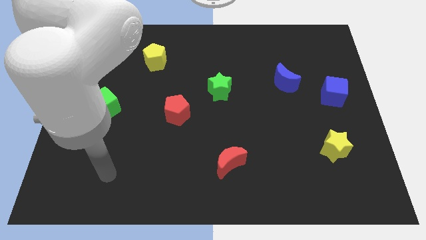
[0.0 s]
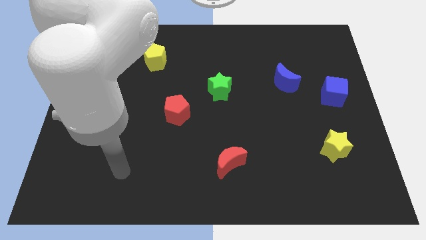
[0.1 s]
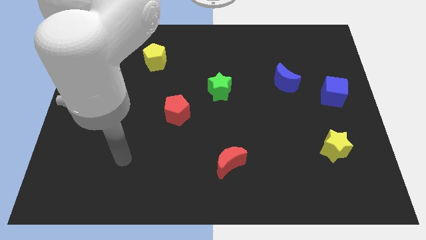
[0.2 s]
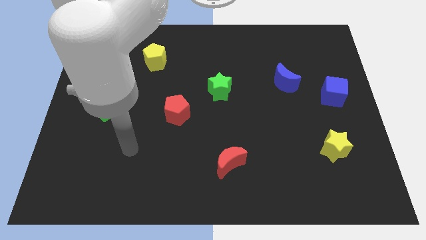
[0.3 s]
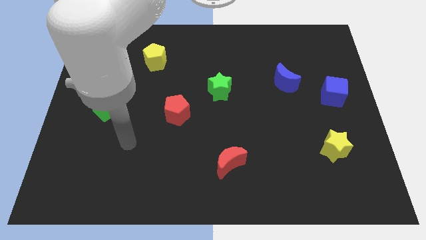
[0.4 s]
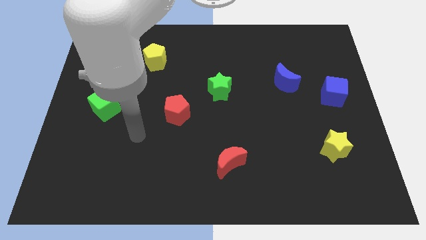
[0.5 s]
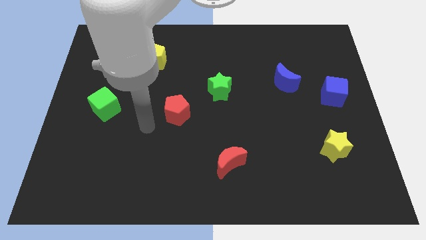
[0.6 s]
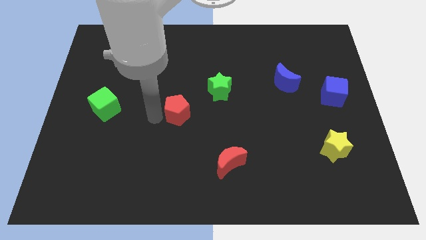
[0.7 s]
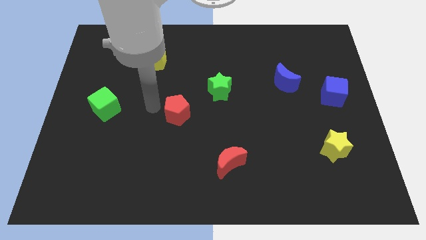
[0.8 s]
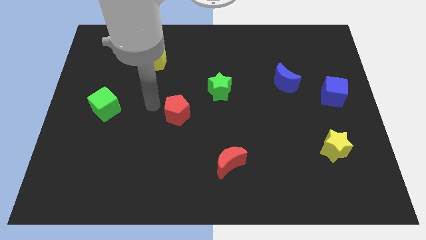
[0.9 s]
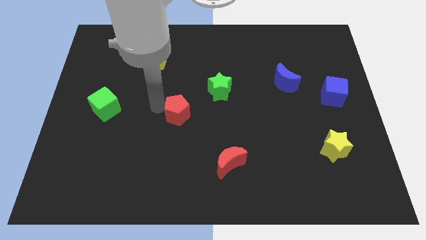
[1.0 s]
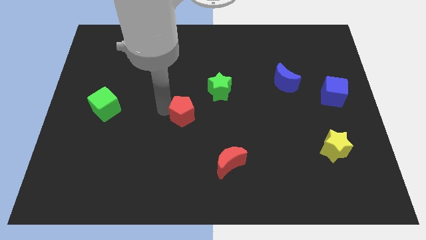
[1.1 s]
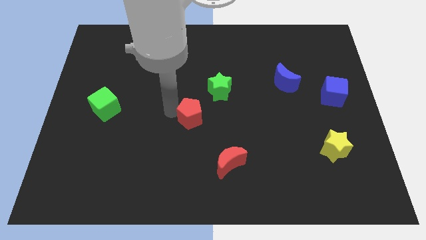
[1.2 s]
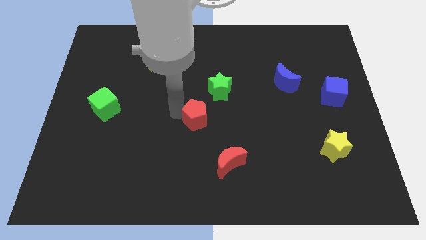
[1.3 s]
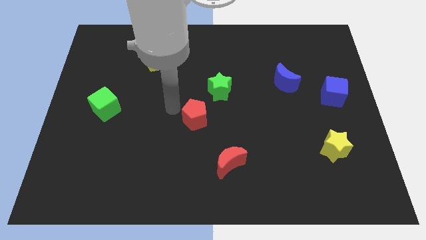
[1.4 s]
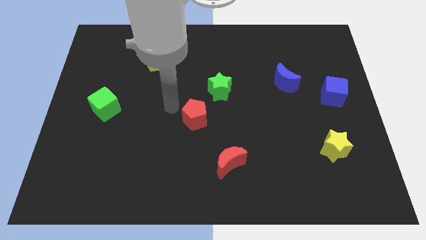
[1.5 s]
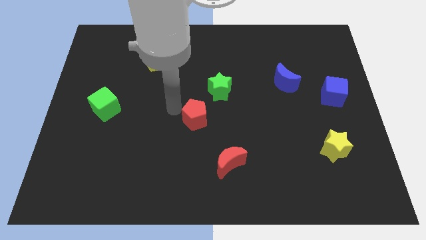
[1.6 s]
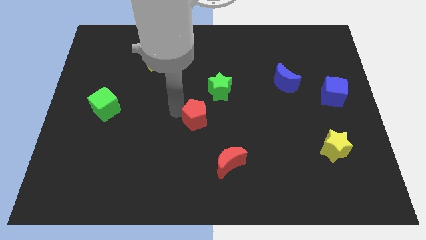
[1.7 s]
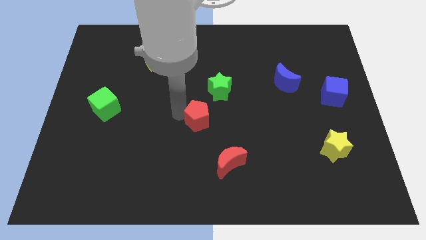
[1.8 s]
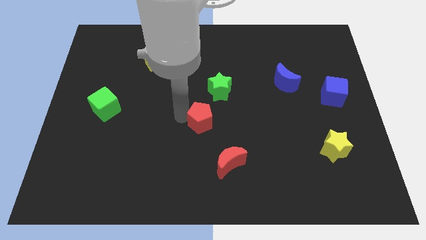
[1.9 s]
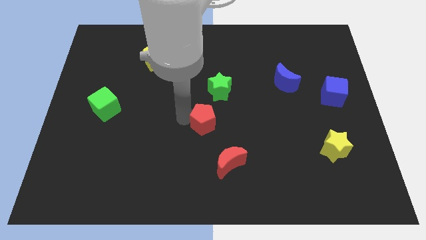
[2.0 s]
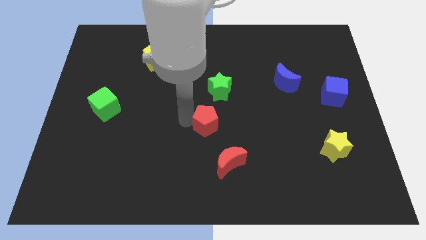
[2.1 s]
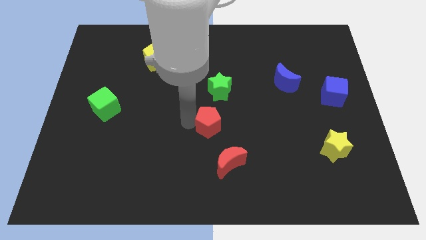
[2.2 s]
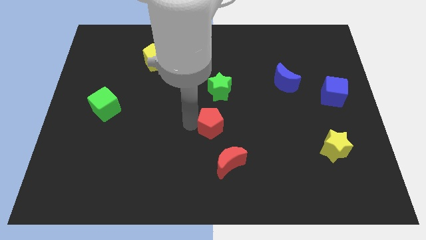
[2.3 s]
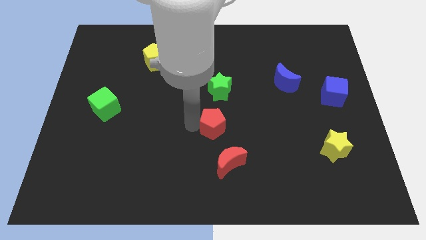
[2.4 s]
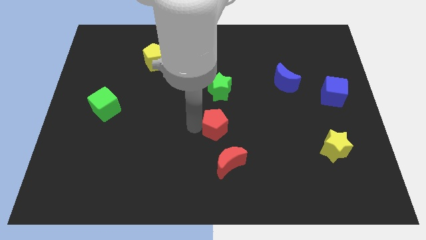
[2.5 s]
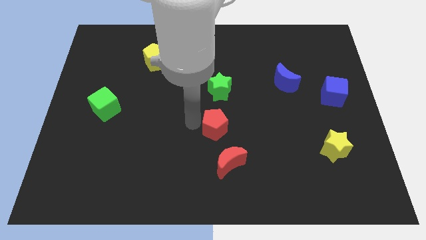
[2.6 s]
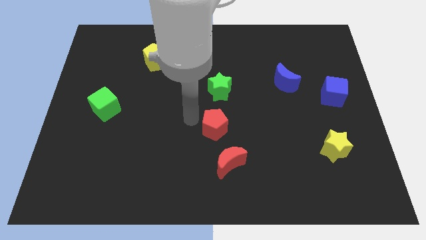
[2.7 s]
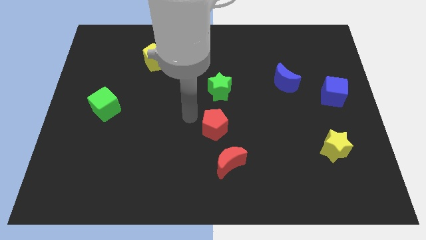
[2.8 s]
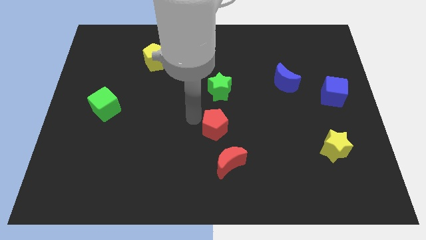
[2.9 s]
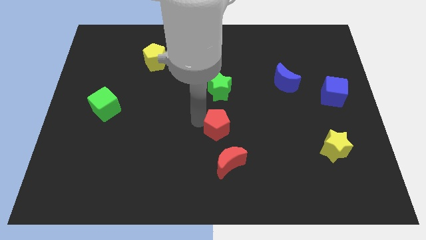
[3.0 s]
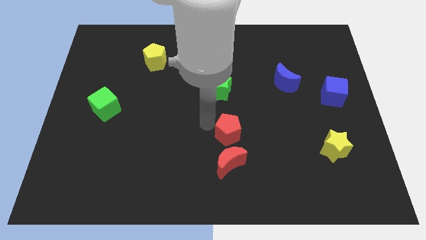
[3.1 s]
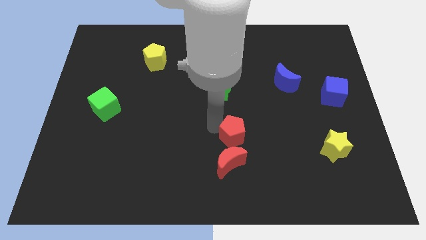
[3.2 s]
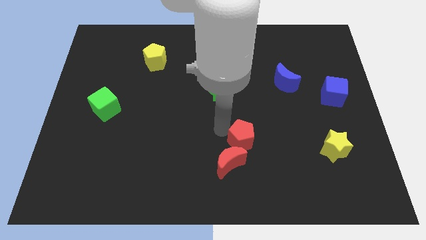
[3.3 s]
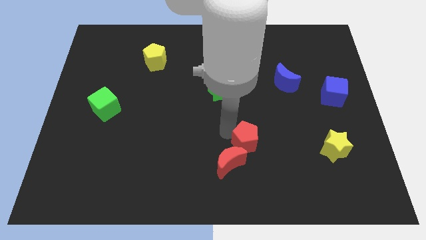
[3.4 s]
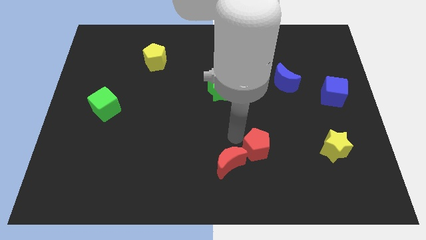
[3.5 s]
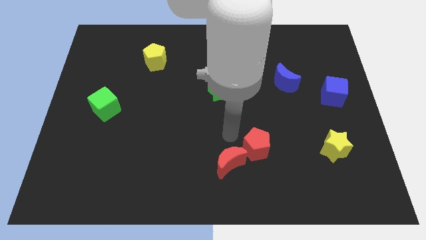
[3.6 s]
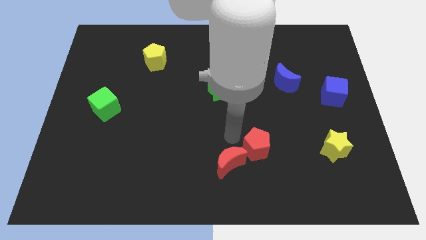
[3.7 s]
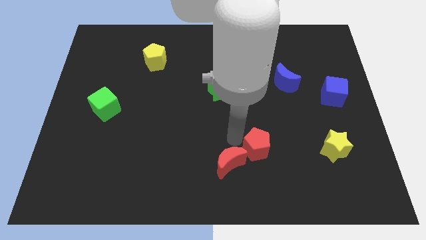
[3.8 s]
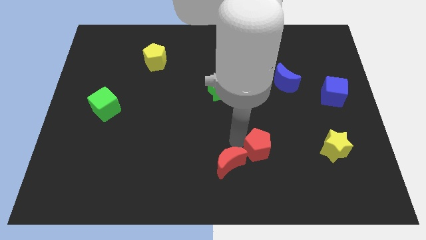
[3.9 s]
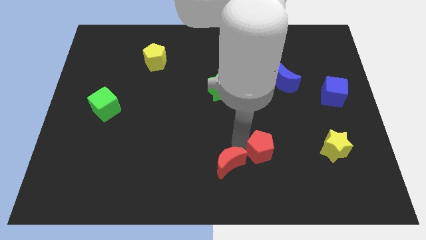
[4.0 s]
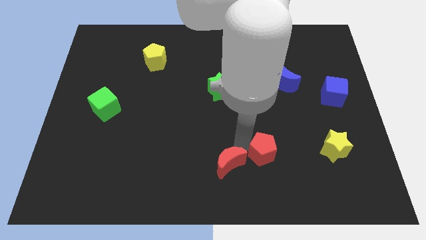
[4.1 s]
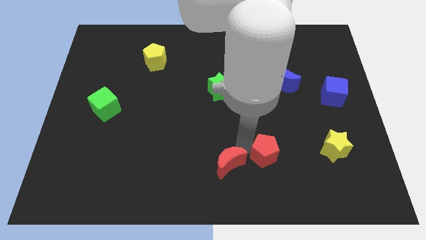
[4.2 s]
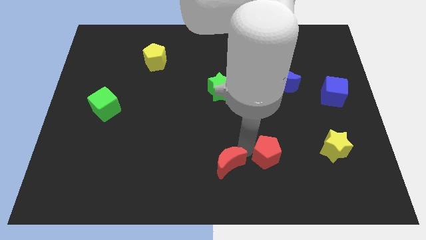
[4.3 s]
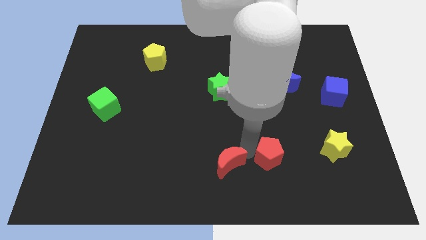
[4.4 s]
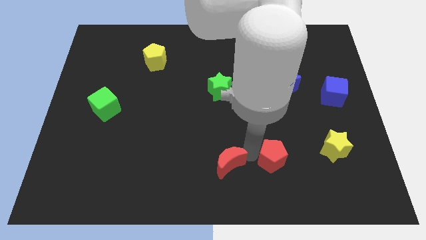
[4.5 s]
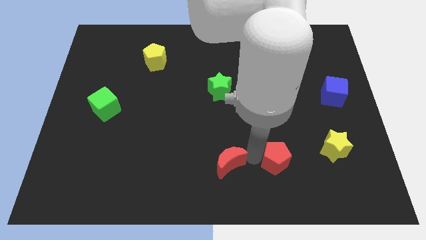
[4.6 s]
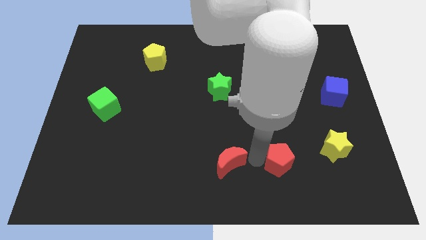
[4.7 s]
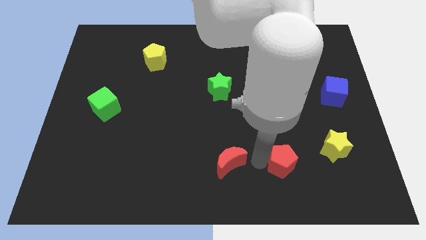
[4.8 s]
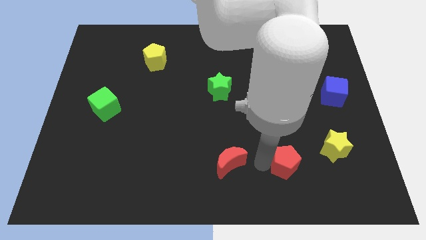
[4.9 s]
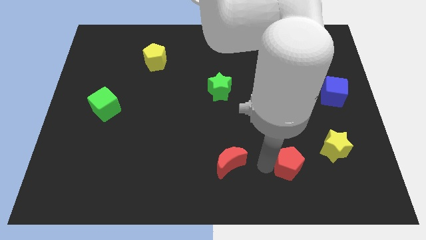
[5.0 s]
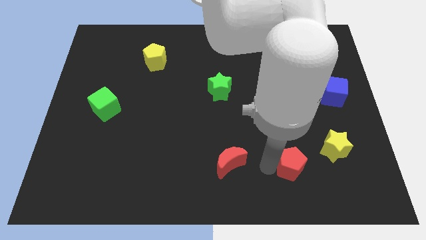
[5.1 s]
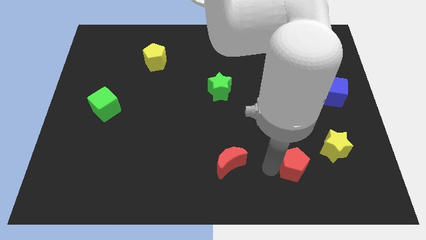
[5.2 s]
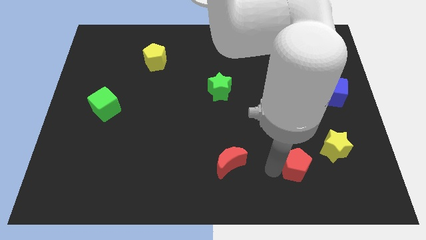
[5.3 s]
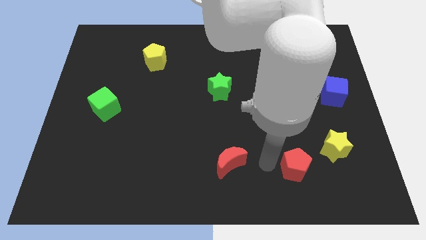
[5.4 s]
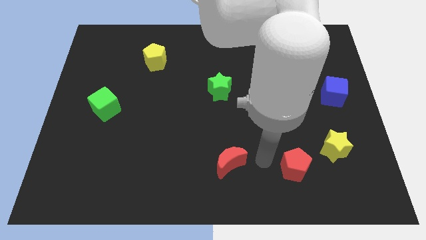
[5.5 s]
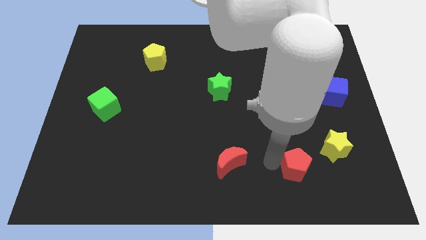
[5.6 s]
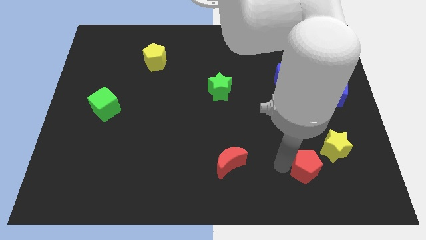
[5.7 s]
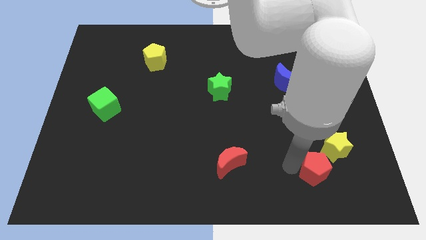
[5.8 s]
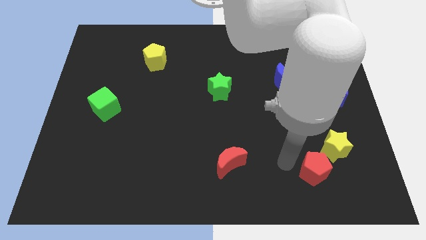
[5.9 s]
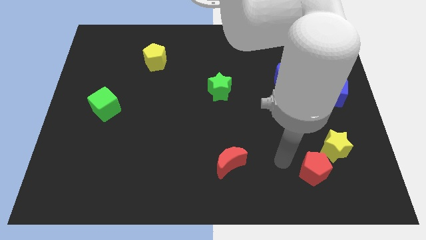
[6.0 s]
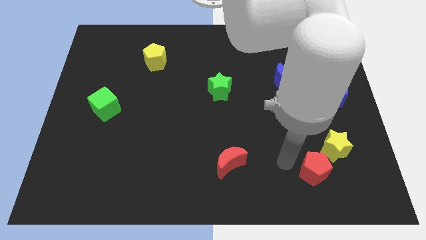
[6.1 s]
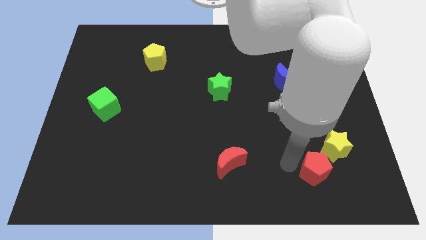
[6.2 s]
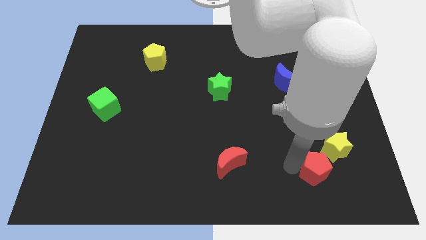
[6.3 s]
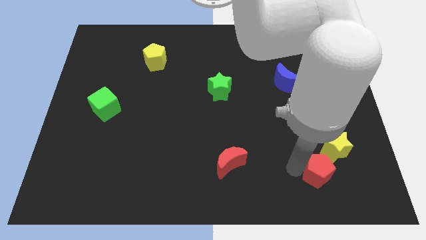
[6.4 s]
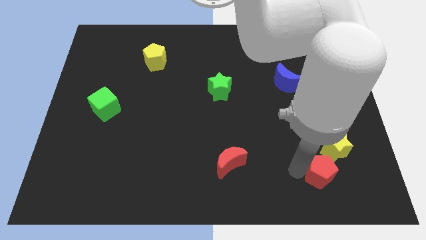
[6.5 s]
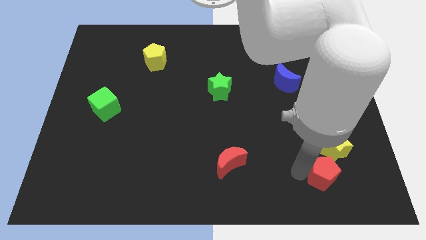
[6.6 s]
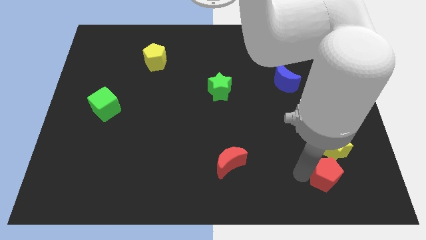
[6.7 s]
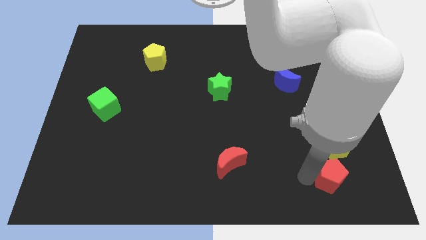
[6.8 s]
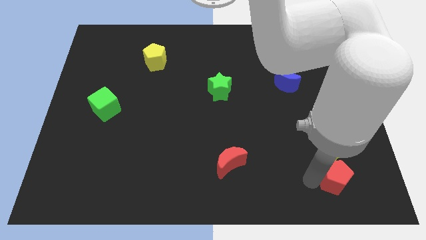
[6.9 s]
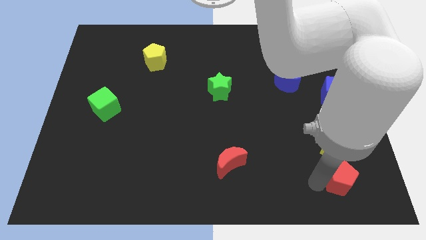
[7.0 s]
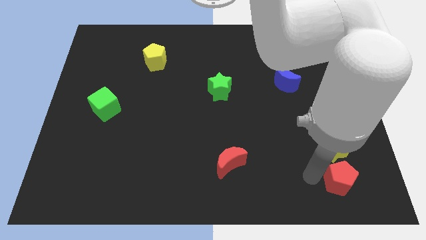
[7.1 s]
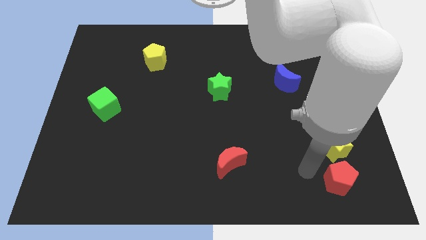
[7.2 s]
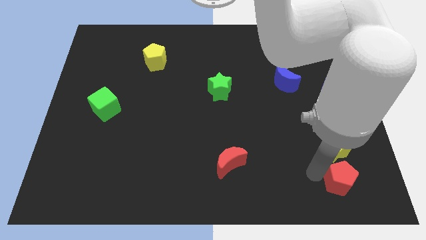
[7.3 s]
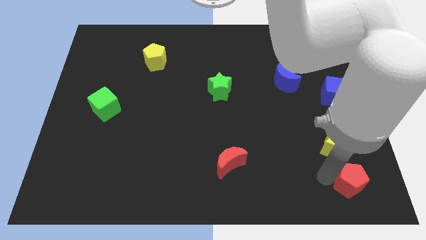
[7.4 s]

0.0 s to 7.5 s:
slide the red pentagon to the bottom right of the board

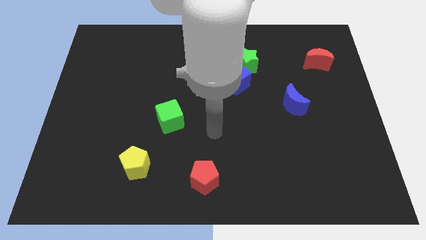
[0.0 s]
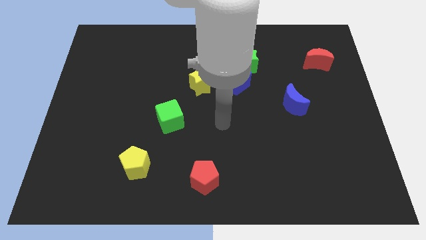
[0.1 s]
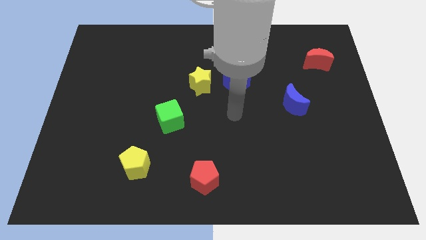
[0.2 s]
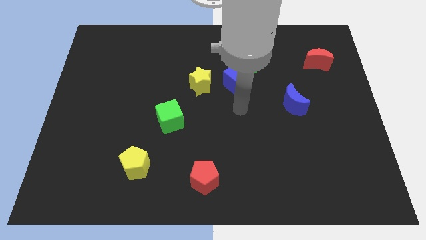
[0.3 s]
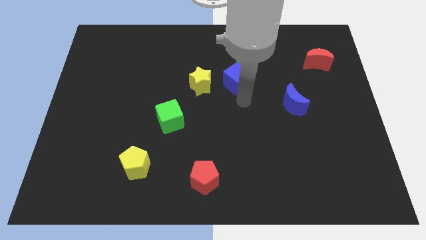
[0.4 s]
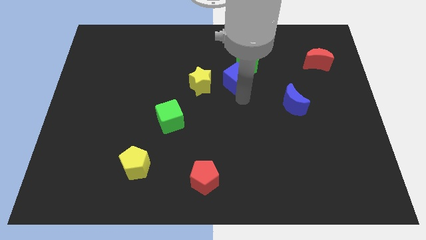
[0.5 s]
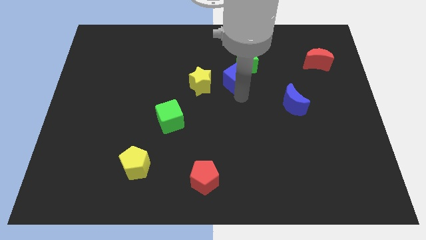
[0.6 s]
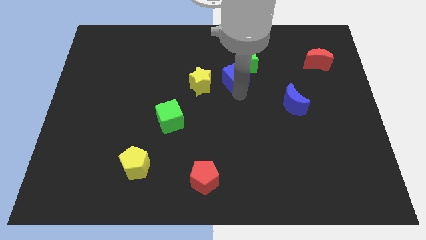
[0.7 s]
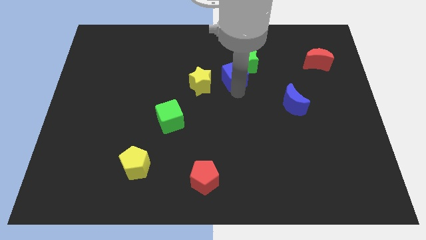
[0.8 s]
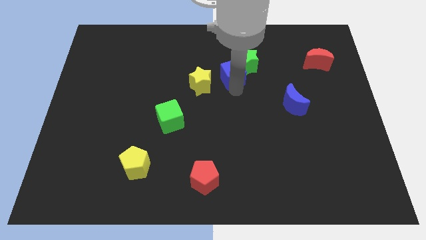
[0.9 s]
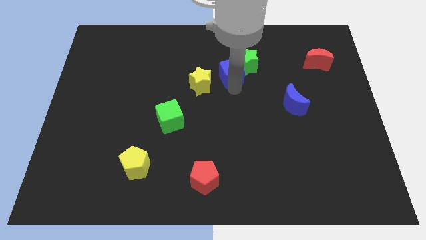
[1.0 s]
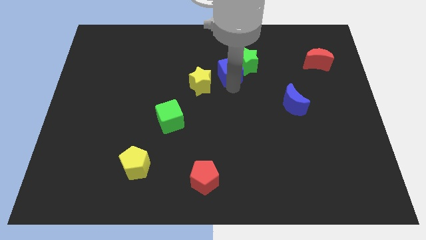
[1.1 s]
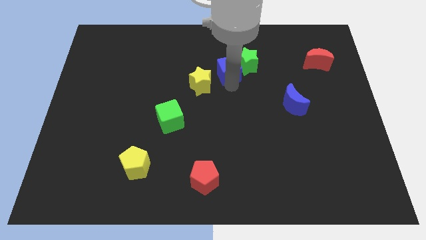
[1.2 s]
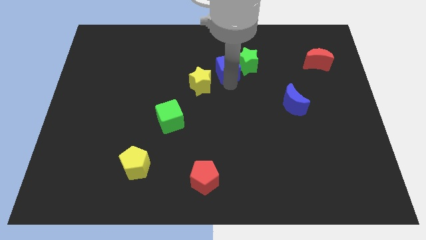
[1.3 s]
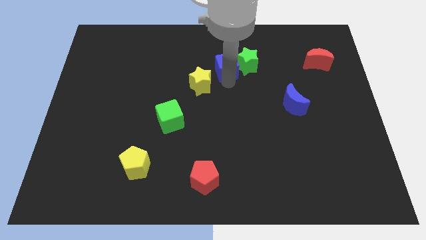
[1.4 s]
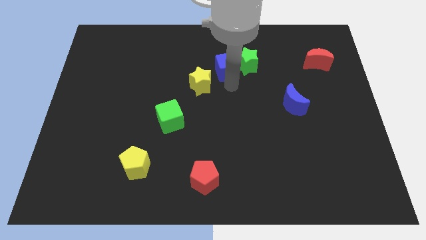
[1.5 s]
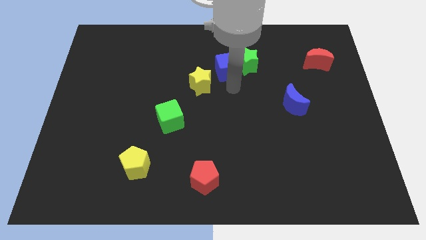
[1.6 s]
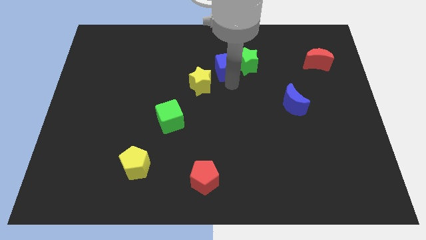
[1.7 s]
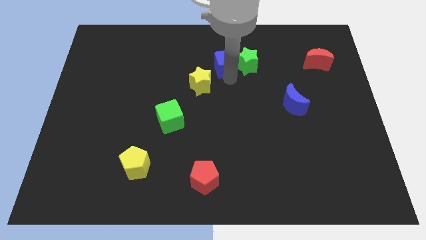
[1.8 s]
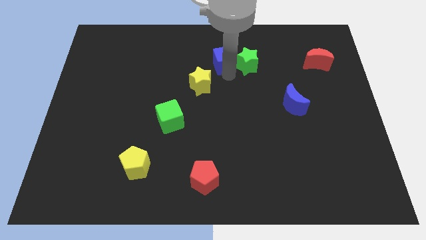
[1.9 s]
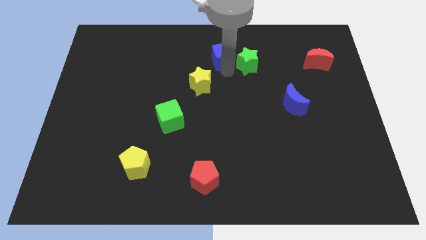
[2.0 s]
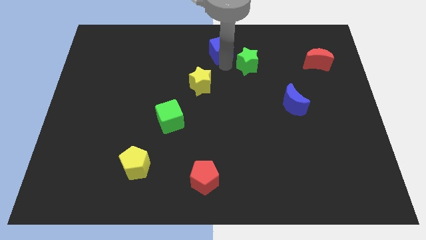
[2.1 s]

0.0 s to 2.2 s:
push the blue cube to the towards your base
